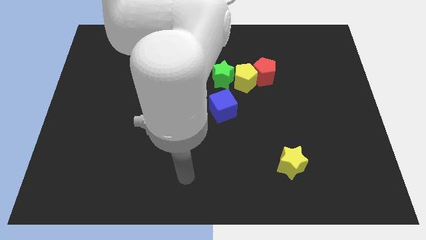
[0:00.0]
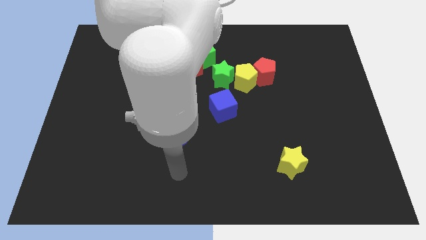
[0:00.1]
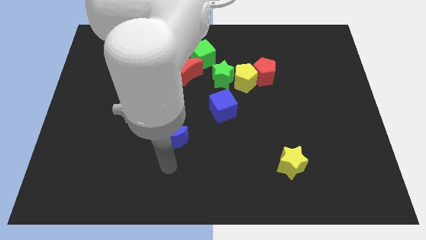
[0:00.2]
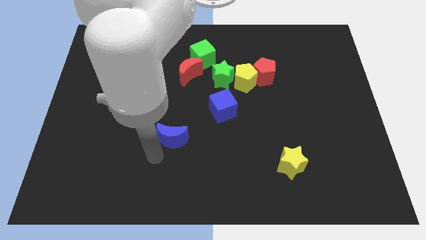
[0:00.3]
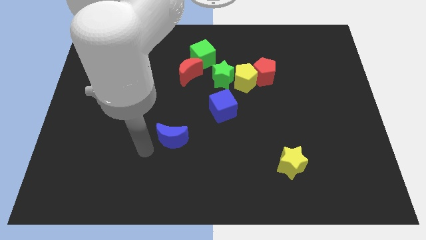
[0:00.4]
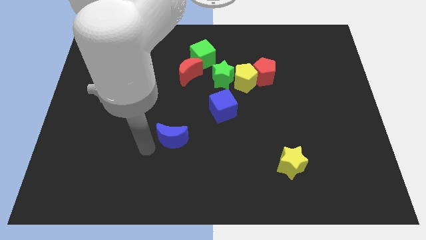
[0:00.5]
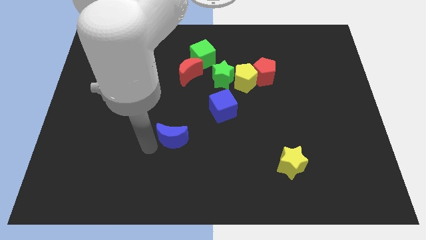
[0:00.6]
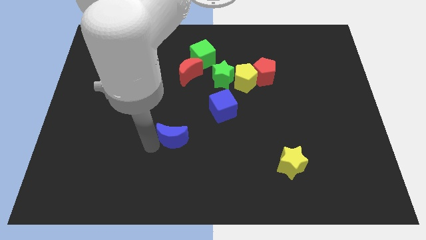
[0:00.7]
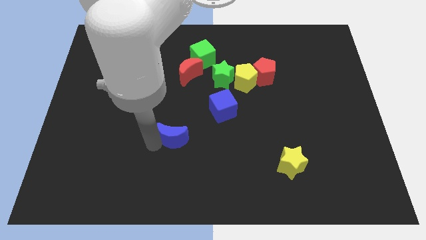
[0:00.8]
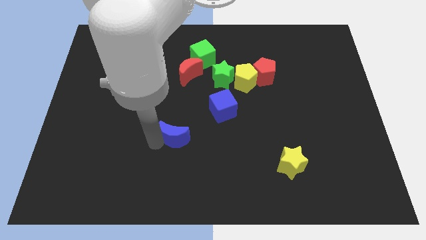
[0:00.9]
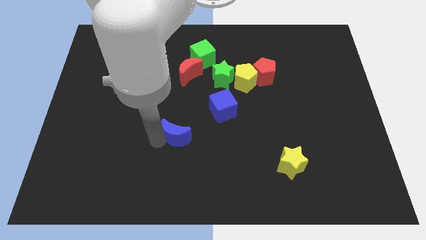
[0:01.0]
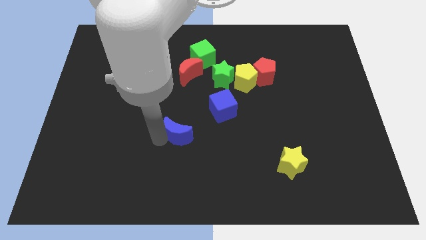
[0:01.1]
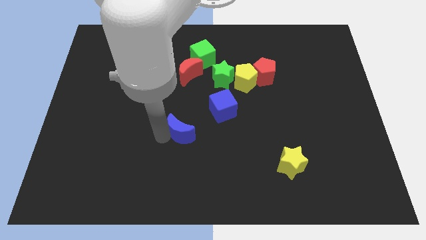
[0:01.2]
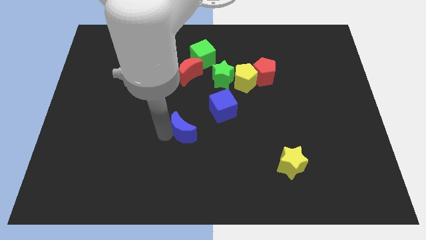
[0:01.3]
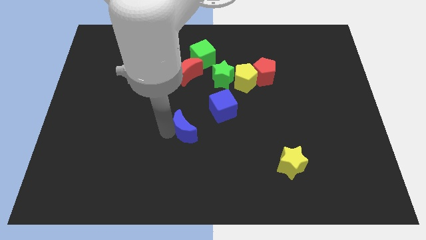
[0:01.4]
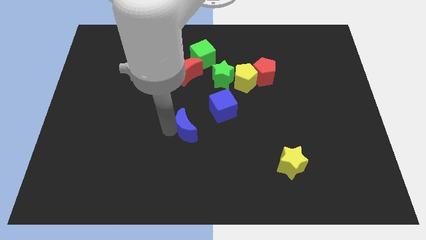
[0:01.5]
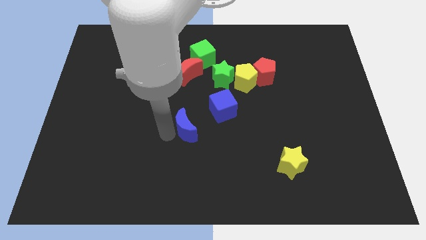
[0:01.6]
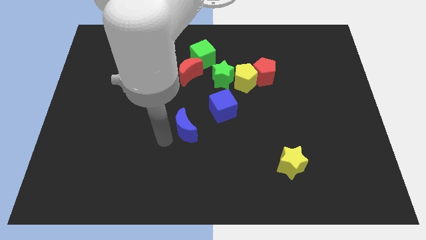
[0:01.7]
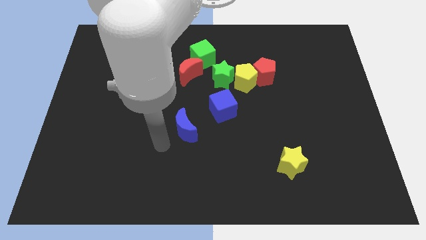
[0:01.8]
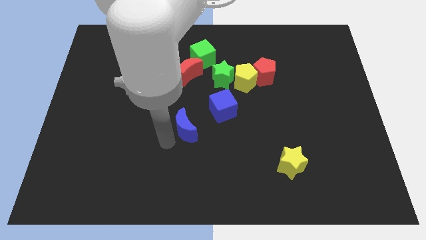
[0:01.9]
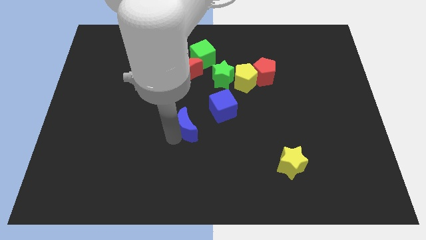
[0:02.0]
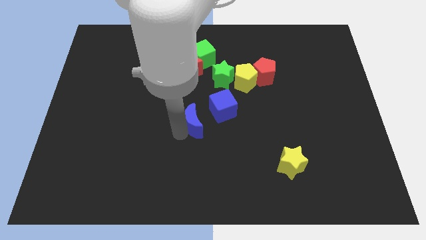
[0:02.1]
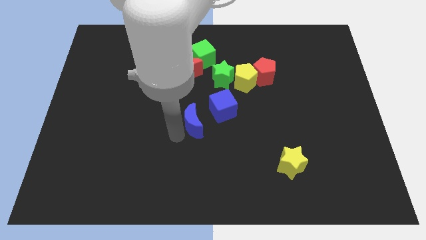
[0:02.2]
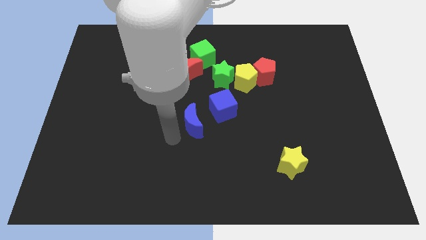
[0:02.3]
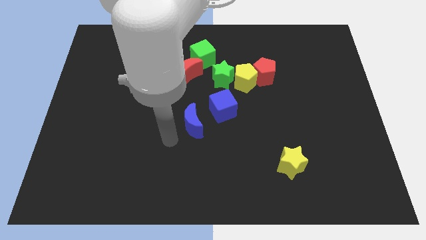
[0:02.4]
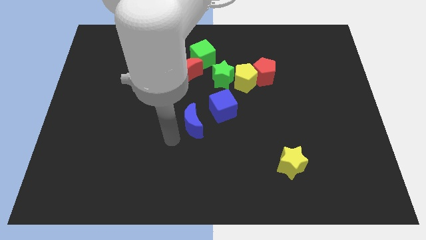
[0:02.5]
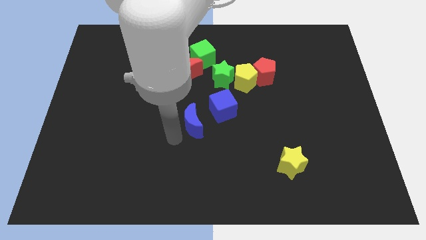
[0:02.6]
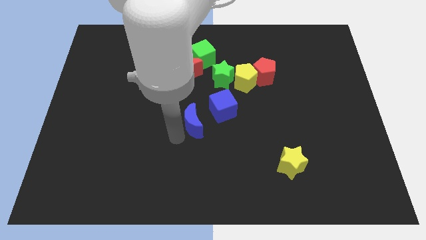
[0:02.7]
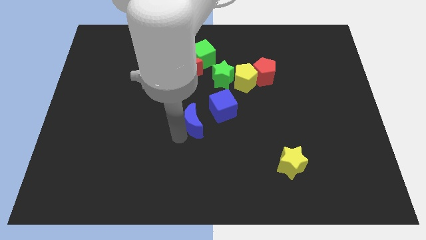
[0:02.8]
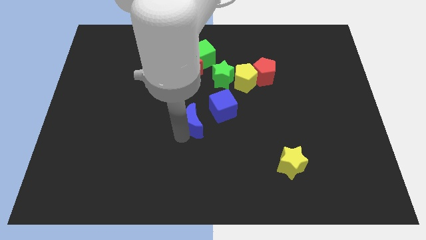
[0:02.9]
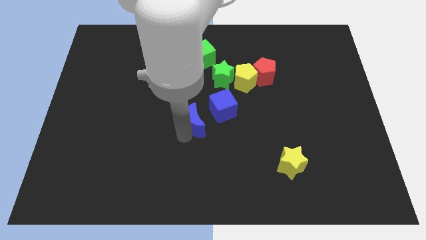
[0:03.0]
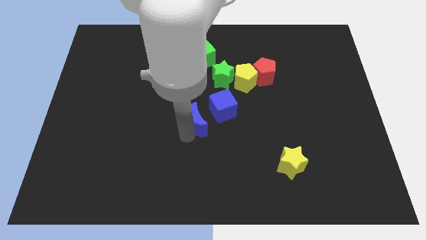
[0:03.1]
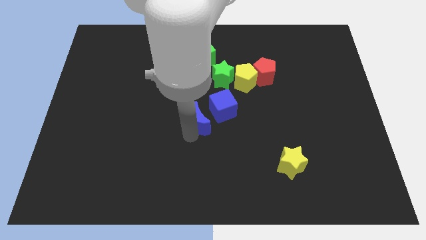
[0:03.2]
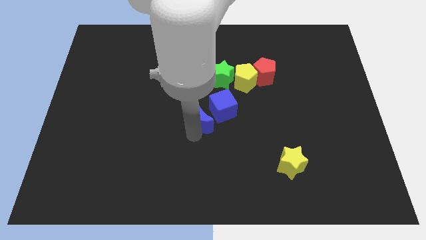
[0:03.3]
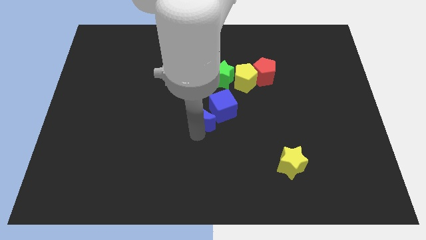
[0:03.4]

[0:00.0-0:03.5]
move the blue moon towards the blue cube

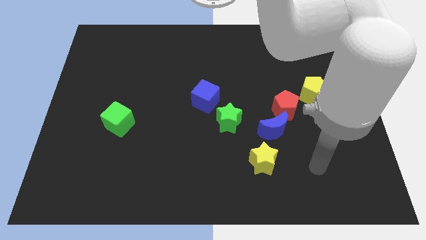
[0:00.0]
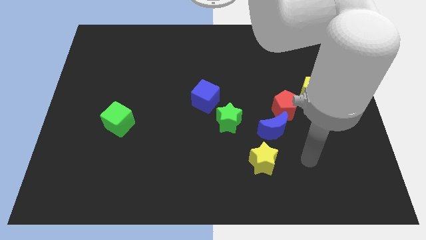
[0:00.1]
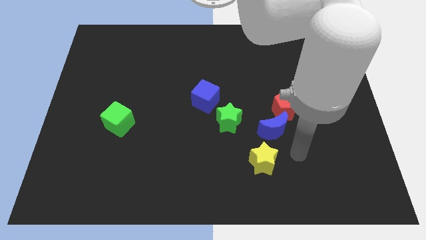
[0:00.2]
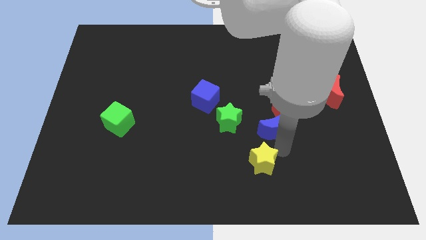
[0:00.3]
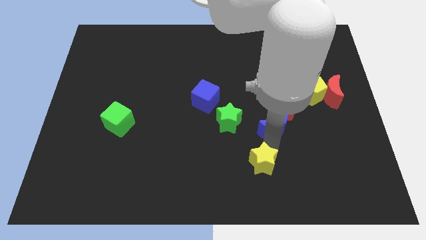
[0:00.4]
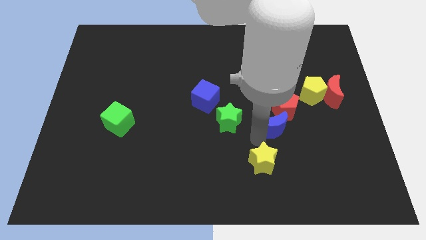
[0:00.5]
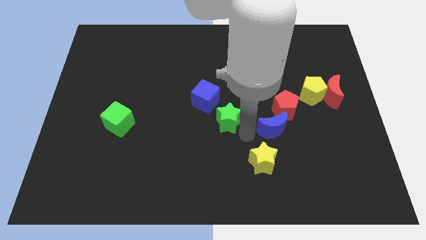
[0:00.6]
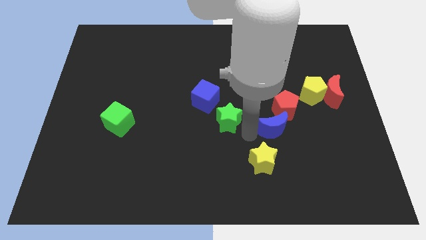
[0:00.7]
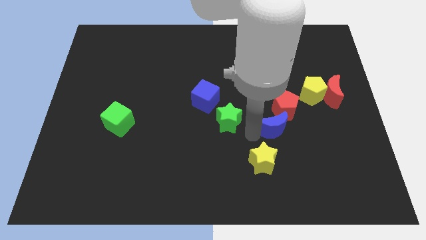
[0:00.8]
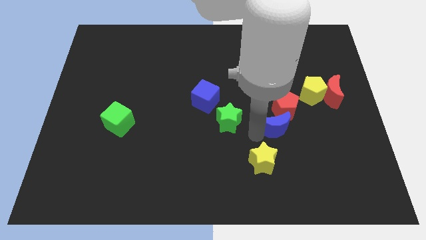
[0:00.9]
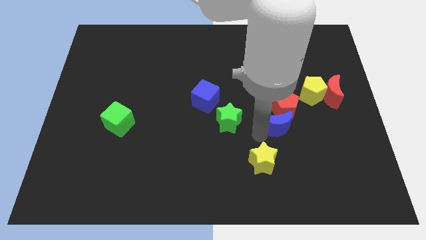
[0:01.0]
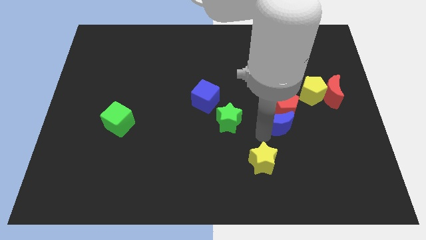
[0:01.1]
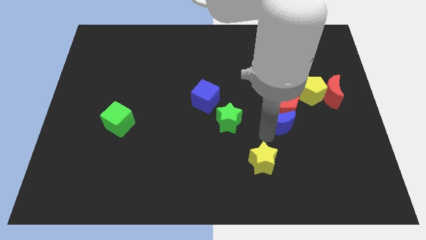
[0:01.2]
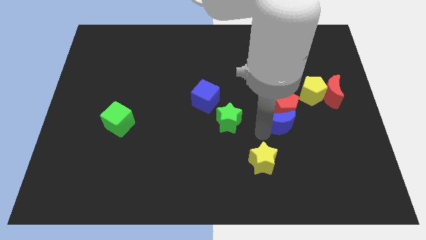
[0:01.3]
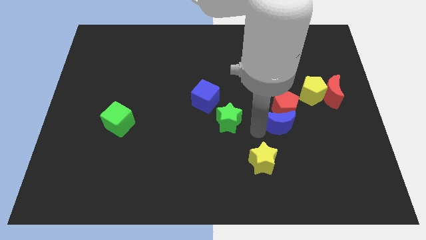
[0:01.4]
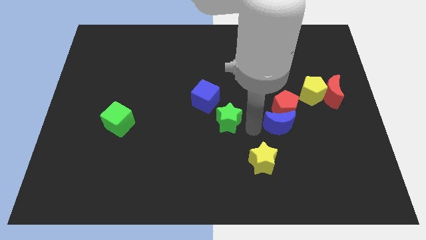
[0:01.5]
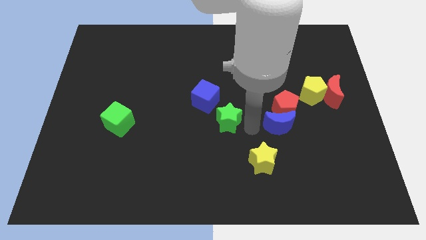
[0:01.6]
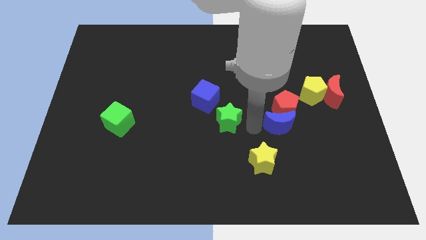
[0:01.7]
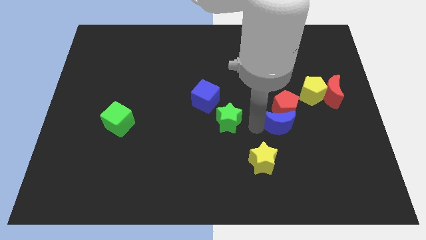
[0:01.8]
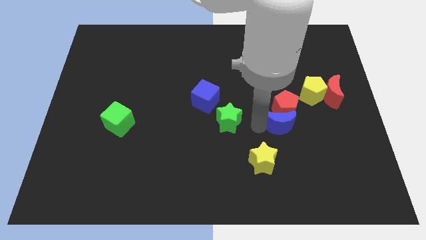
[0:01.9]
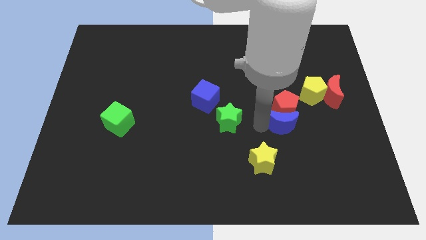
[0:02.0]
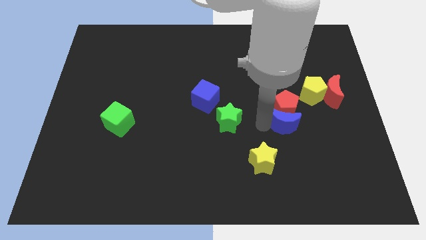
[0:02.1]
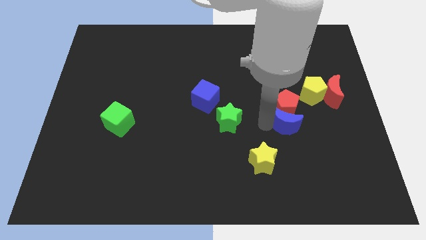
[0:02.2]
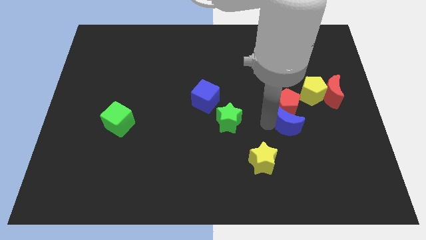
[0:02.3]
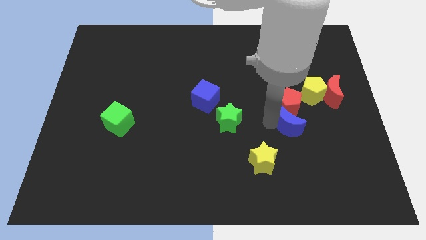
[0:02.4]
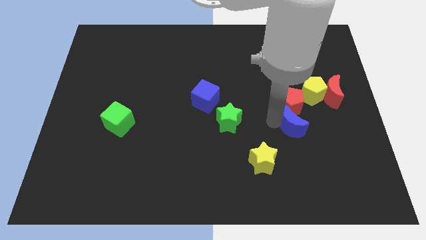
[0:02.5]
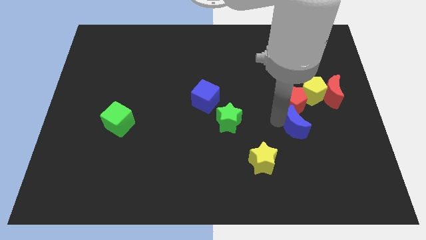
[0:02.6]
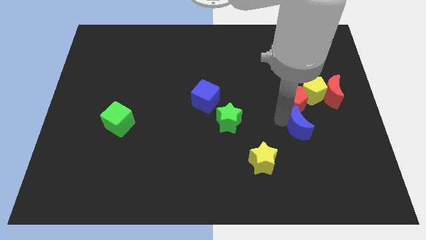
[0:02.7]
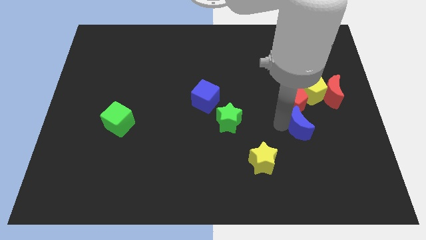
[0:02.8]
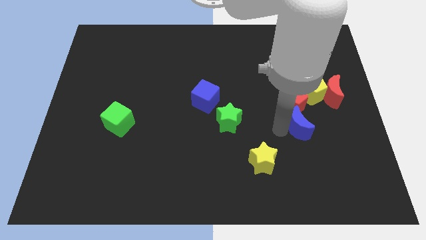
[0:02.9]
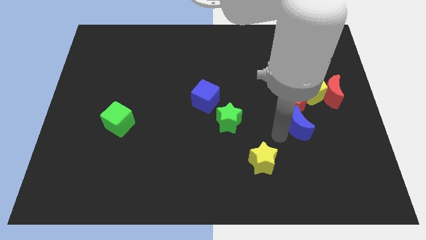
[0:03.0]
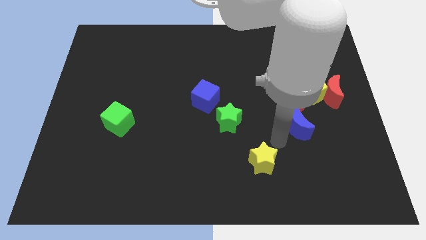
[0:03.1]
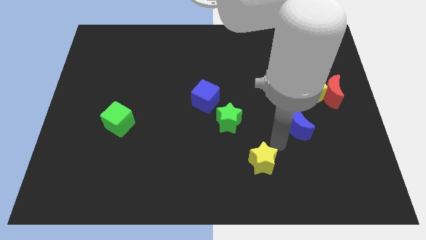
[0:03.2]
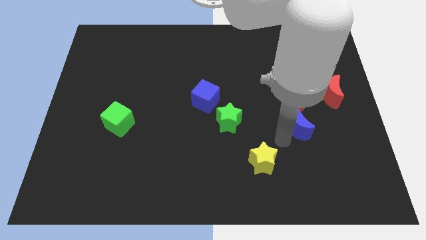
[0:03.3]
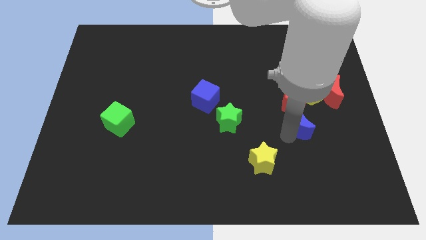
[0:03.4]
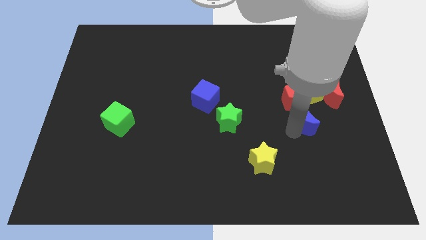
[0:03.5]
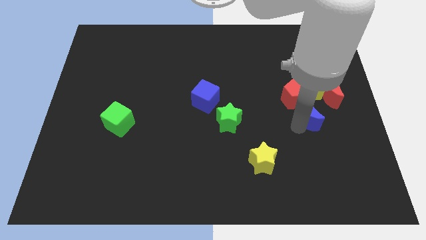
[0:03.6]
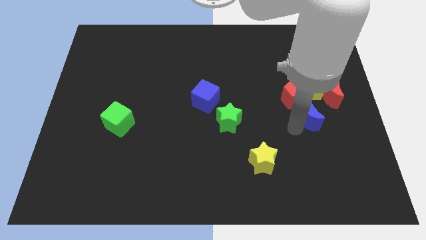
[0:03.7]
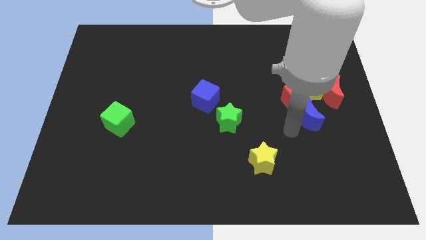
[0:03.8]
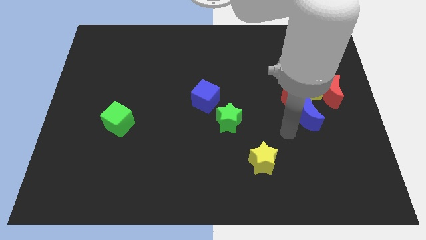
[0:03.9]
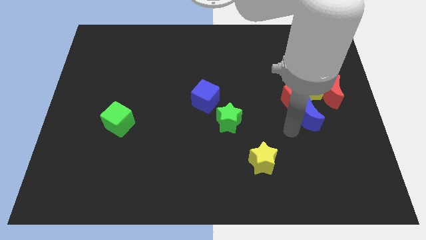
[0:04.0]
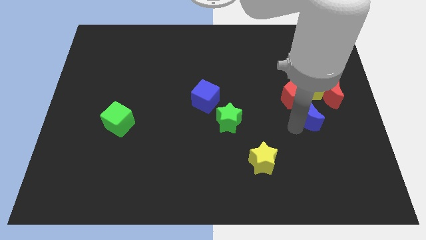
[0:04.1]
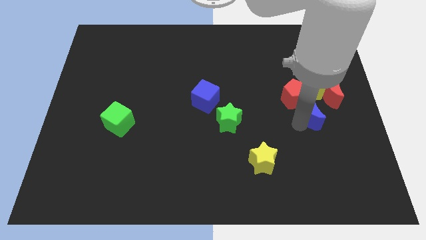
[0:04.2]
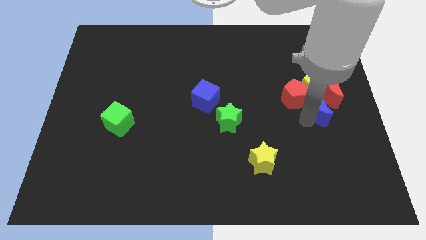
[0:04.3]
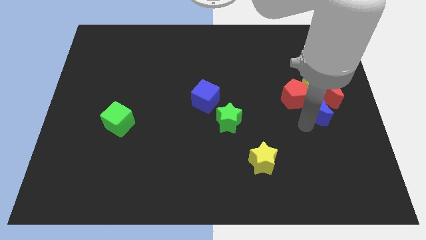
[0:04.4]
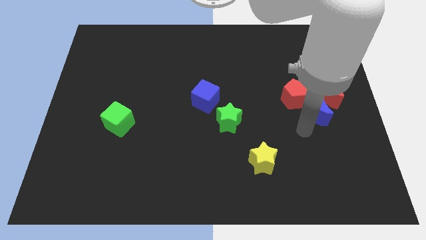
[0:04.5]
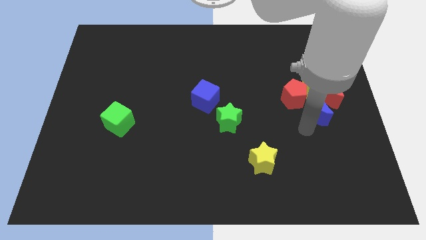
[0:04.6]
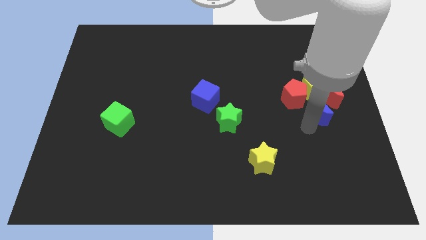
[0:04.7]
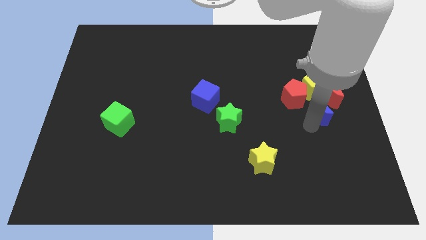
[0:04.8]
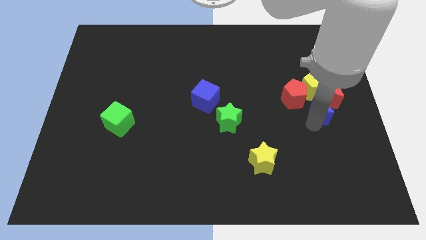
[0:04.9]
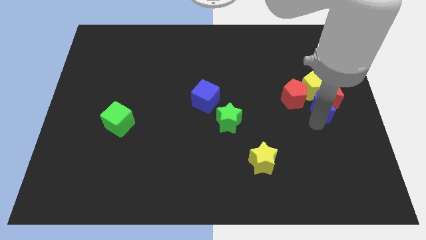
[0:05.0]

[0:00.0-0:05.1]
put the blue moon close to the red moon
